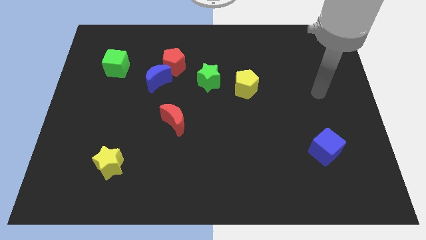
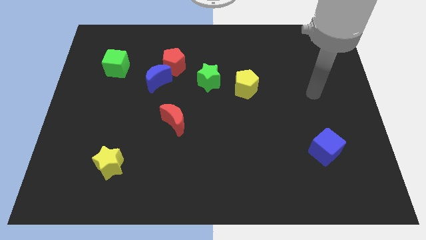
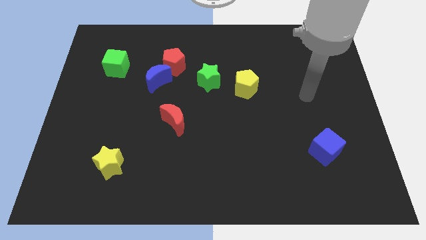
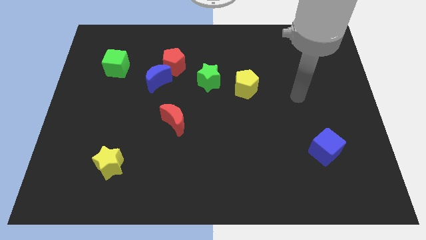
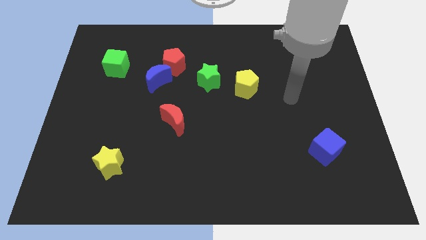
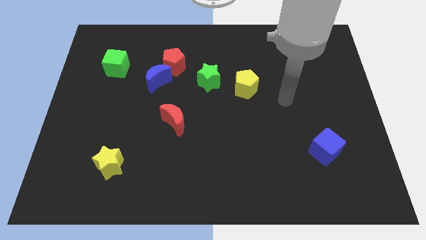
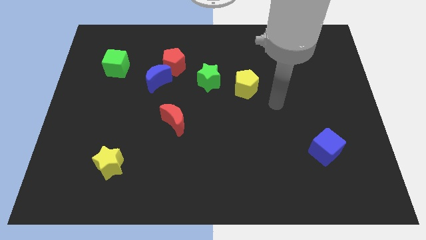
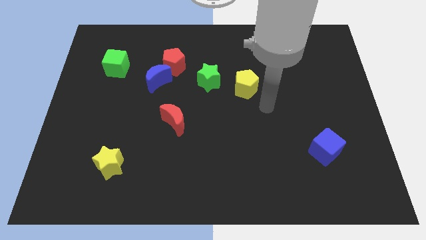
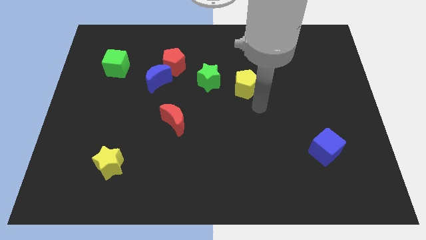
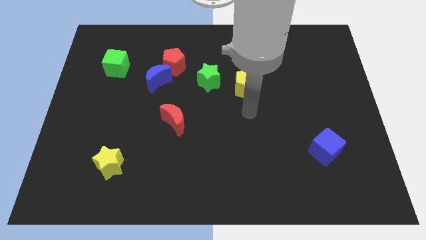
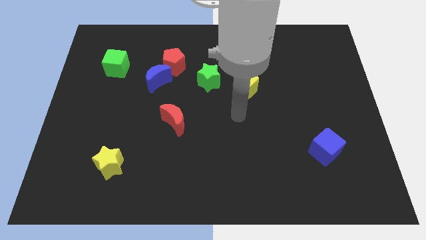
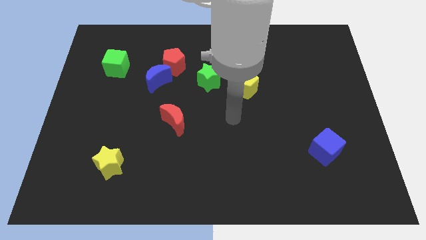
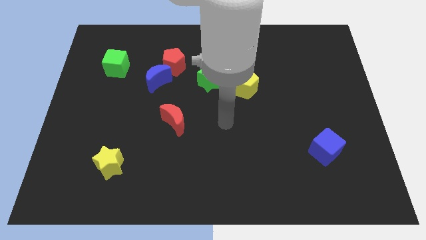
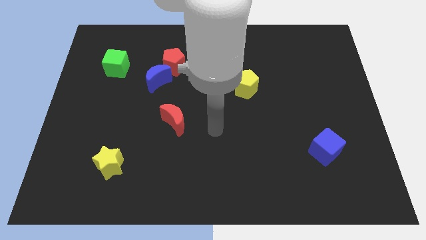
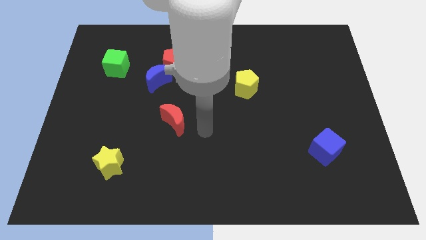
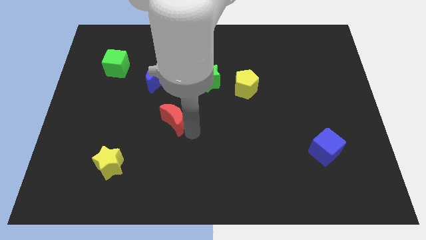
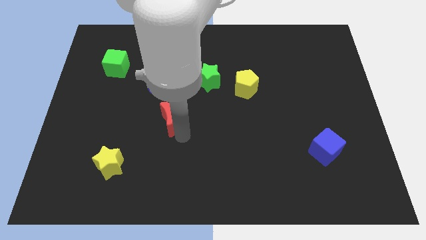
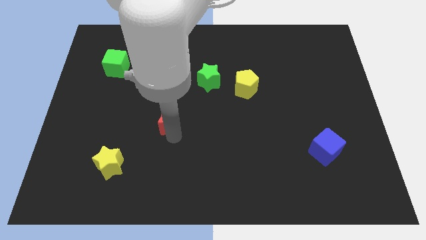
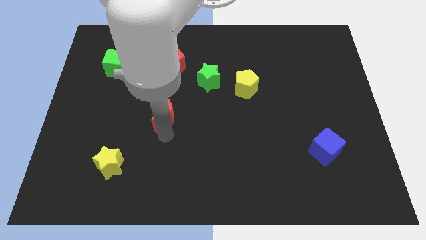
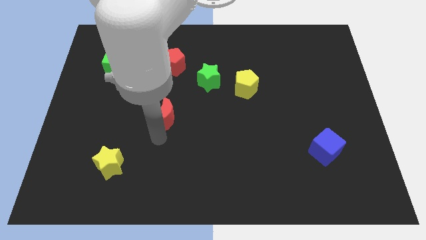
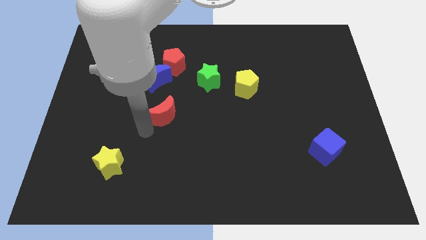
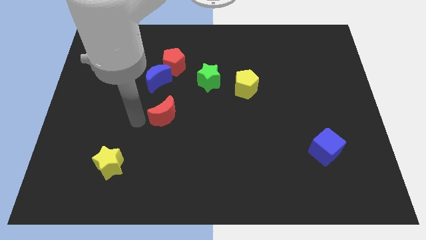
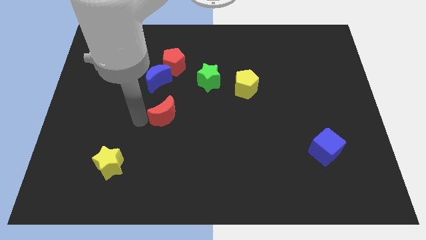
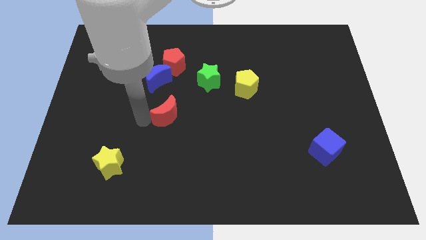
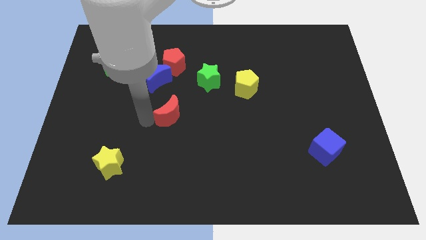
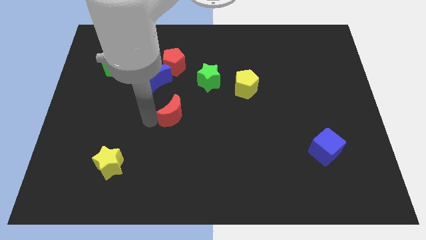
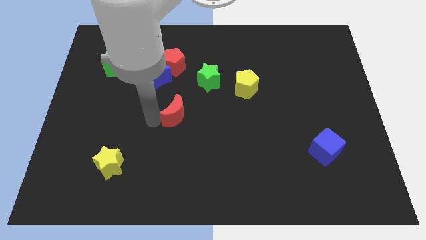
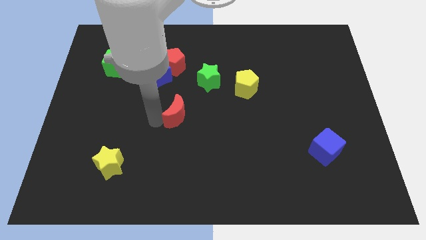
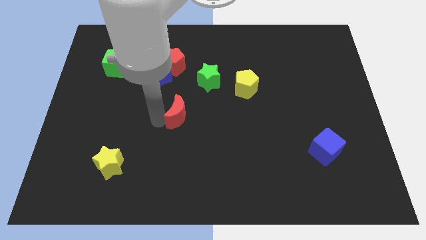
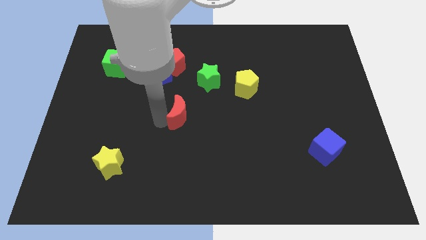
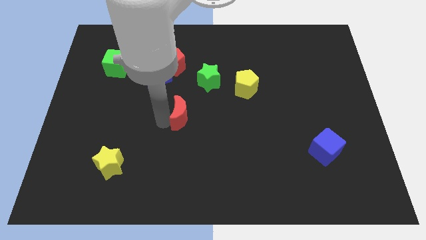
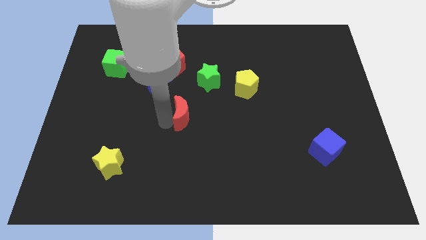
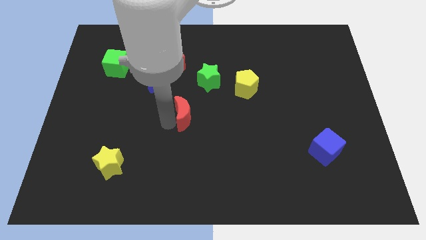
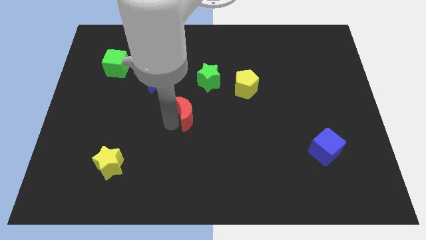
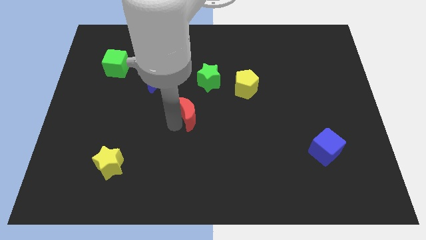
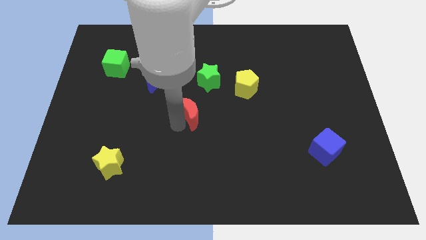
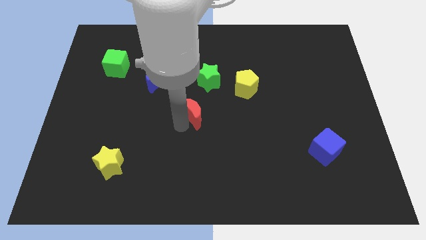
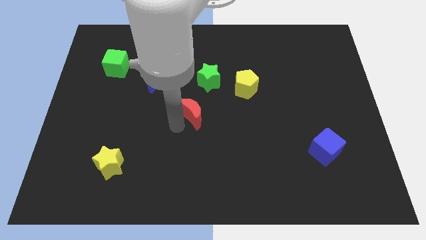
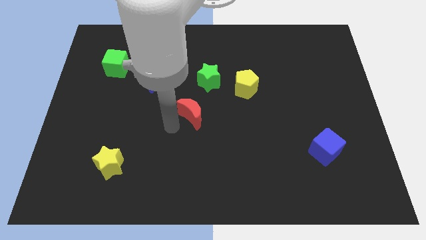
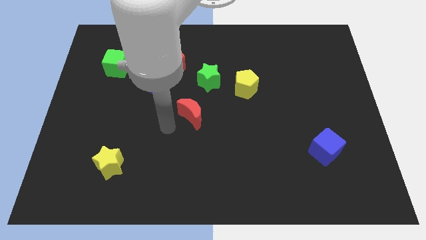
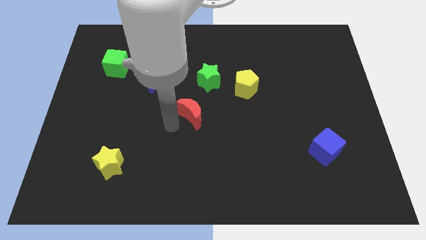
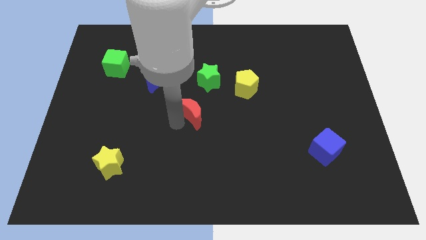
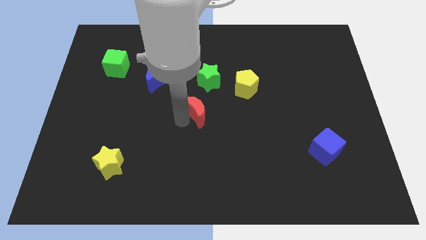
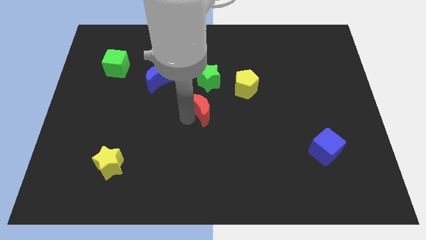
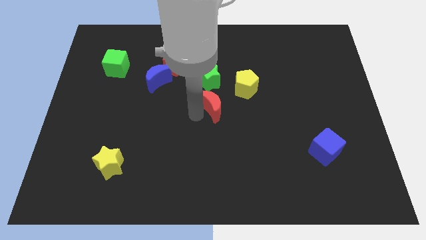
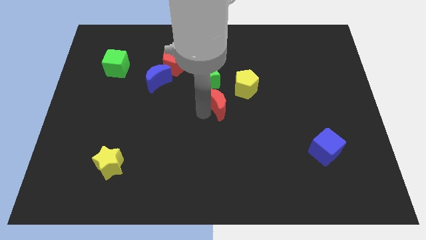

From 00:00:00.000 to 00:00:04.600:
push the red moon to the bottom right of the green star

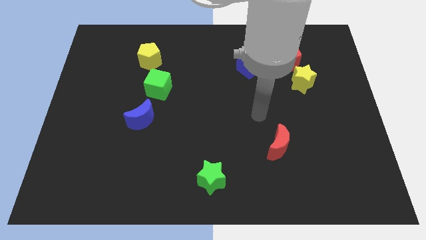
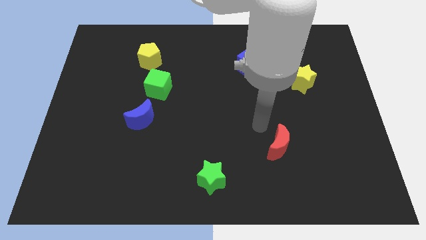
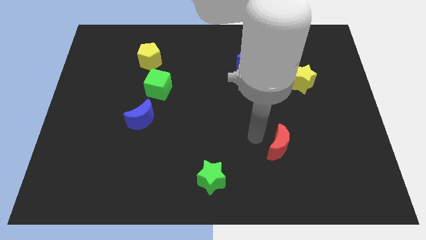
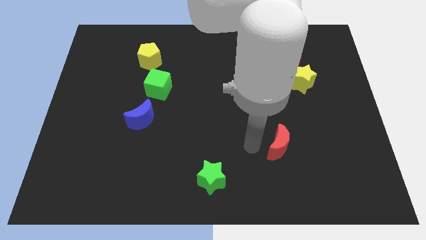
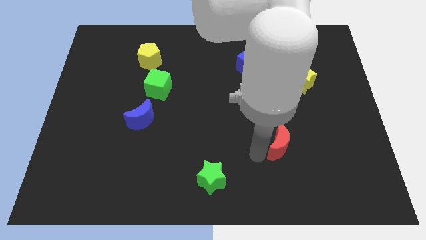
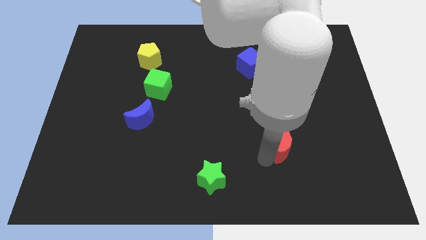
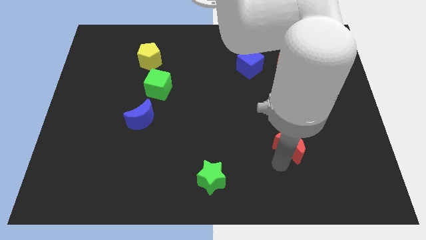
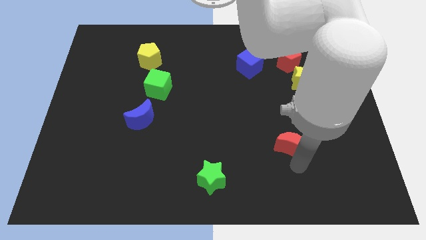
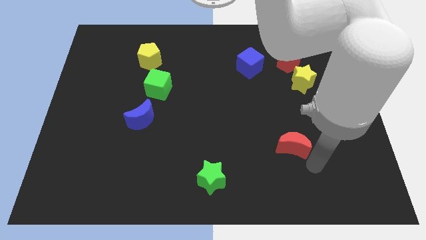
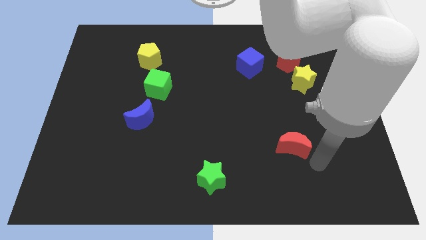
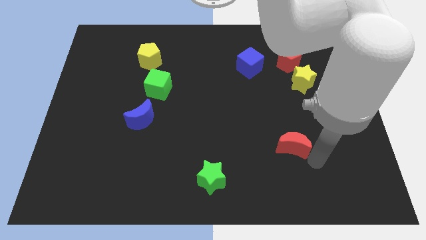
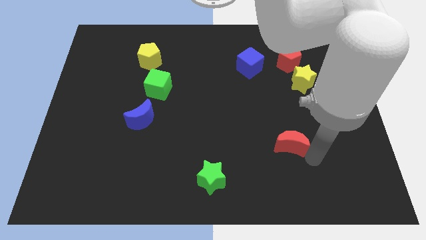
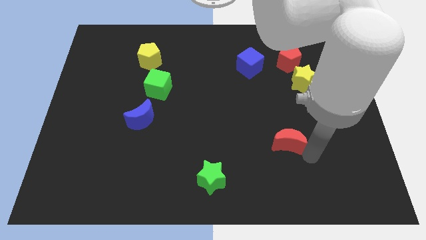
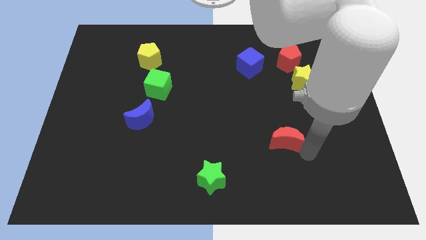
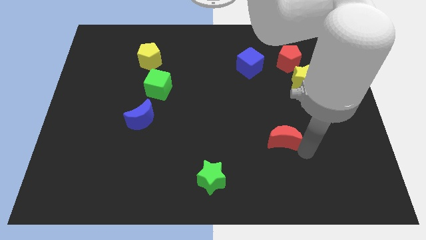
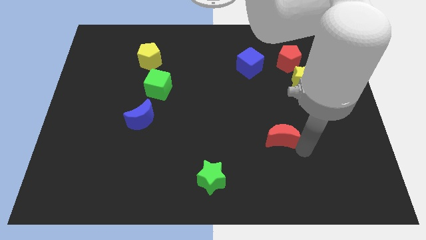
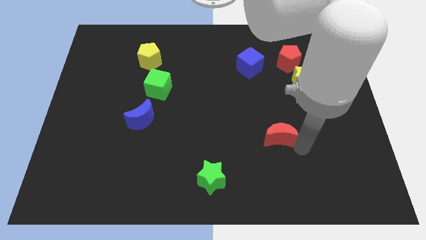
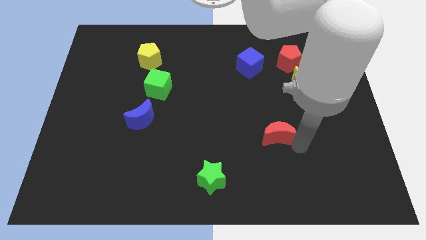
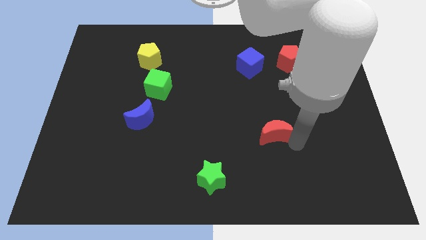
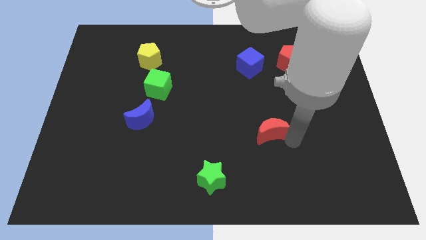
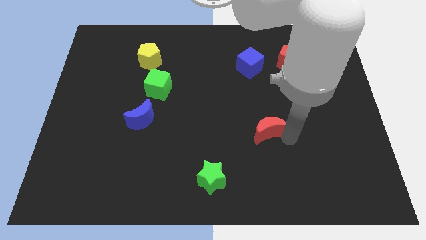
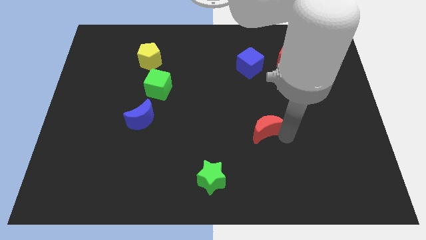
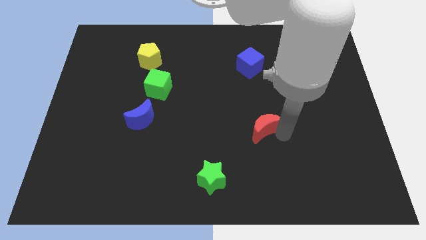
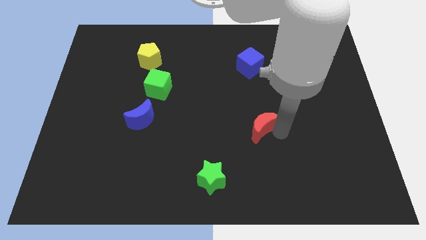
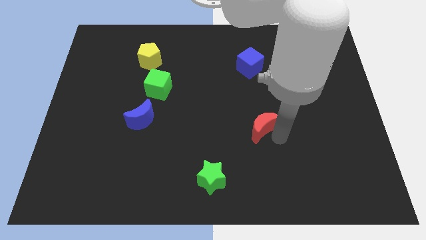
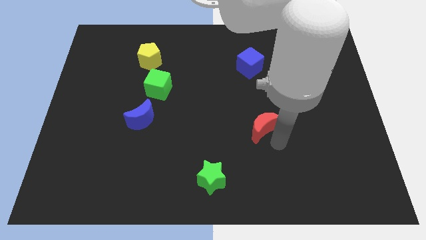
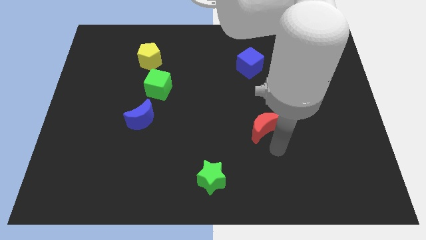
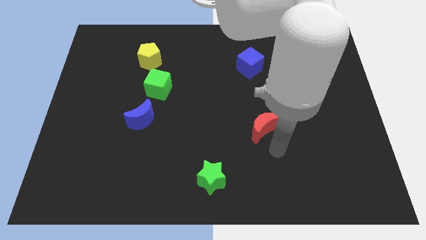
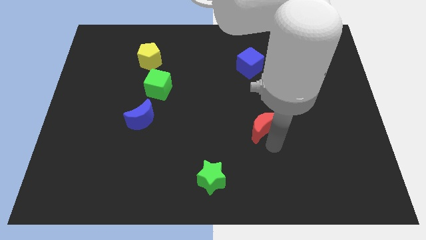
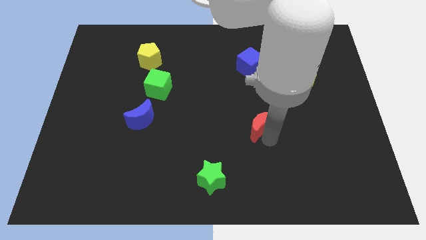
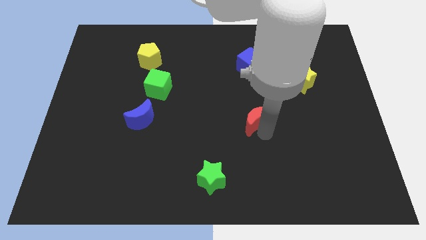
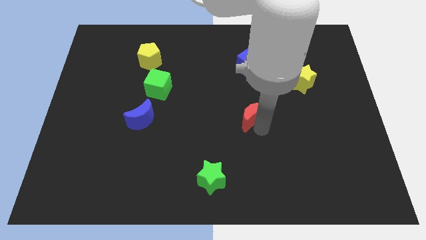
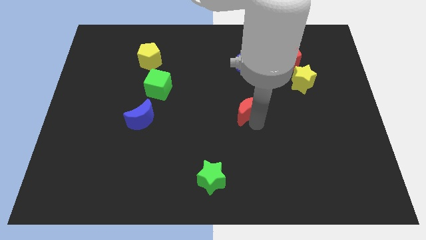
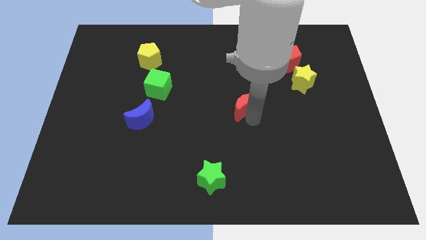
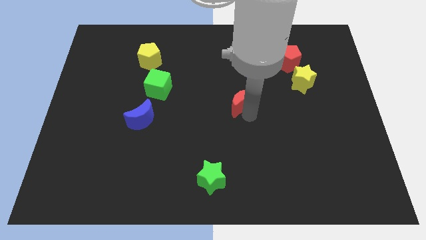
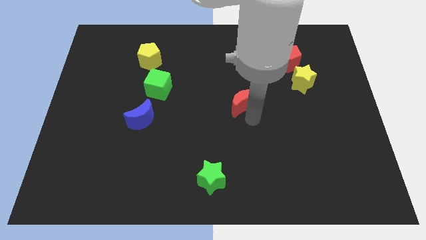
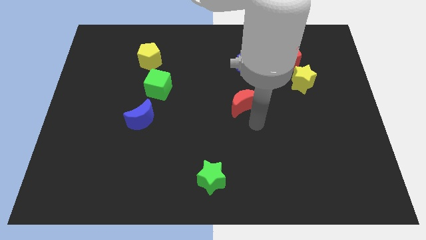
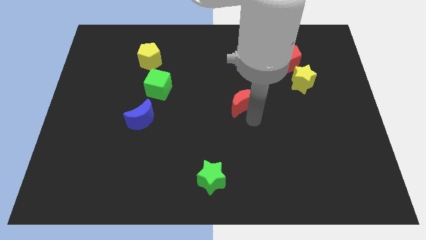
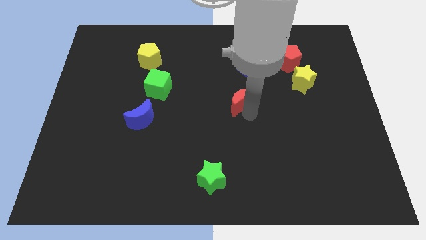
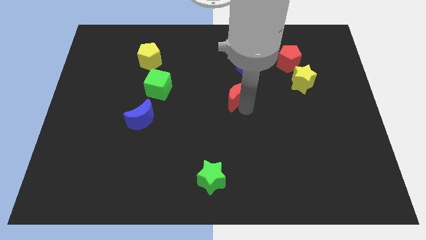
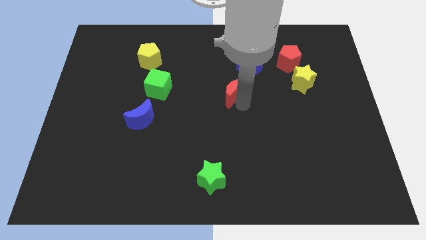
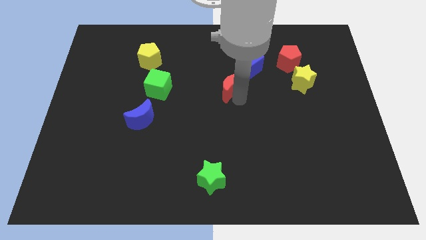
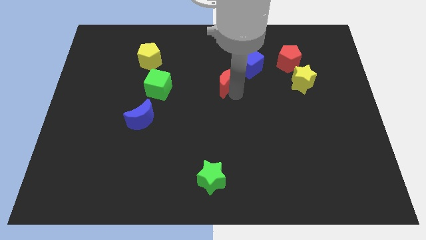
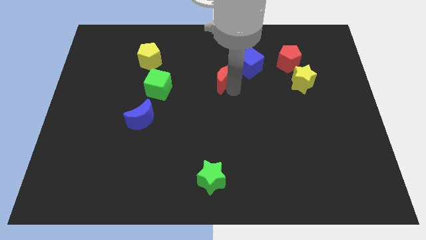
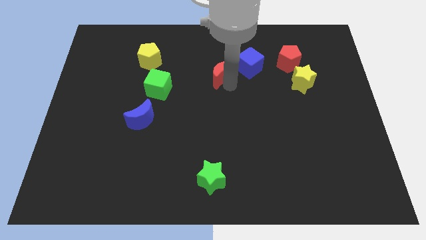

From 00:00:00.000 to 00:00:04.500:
put the red moon to the left of the blue cube
